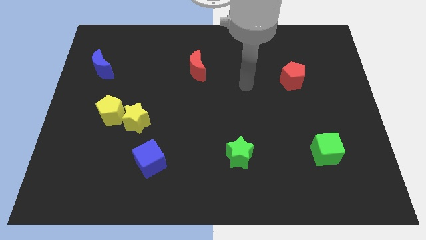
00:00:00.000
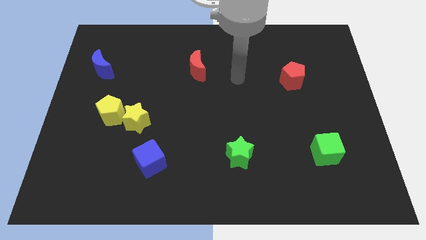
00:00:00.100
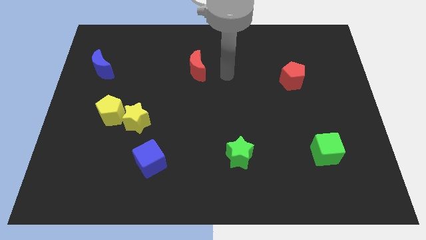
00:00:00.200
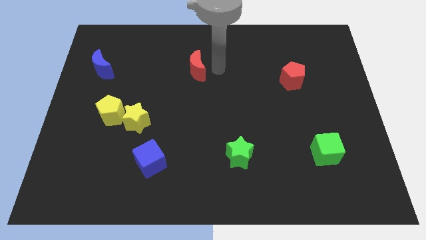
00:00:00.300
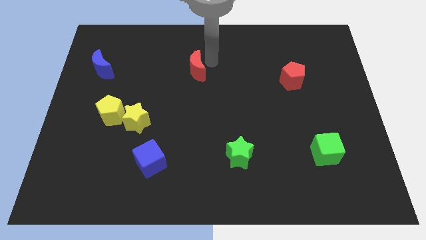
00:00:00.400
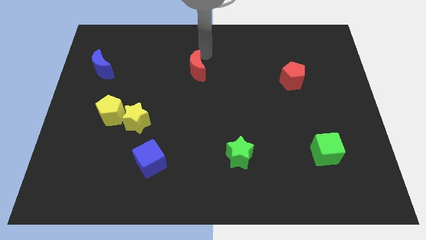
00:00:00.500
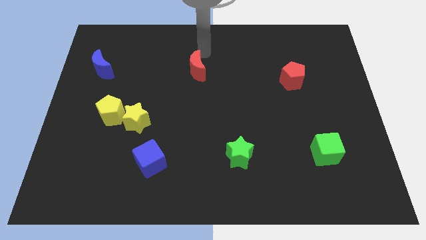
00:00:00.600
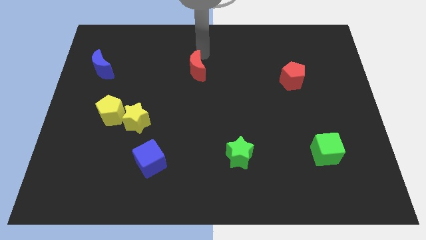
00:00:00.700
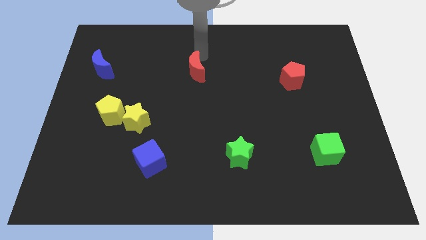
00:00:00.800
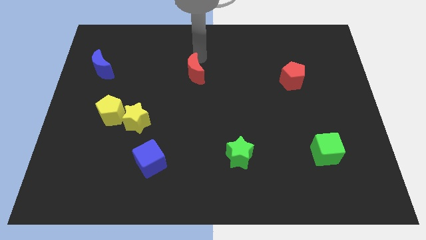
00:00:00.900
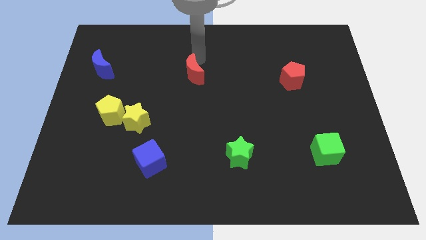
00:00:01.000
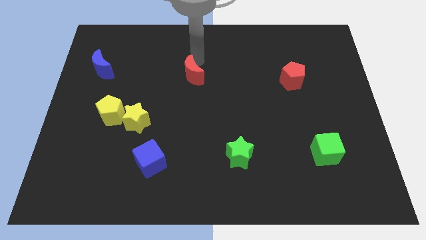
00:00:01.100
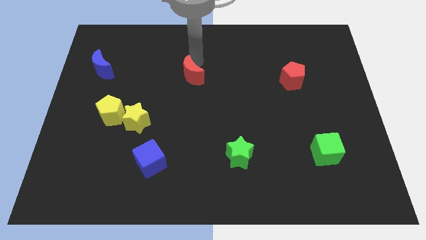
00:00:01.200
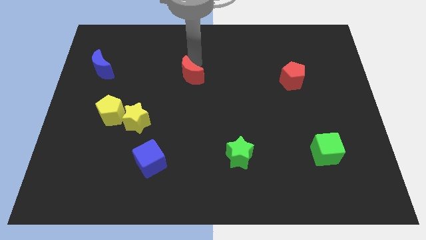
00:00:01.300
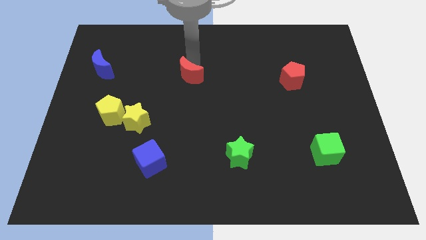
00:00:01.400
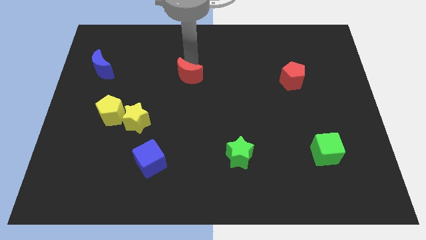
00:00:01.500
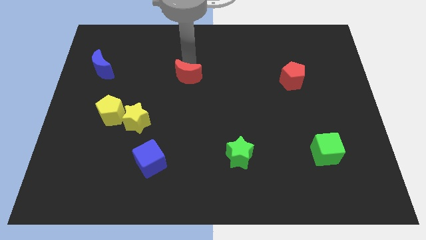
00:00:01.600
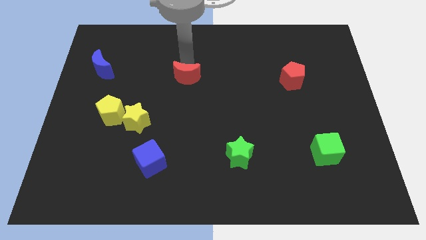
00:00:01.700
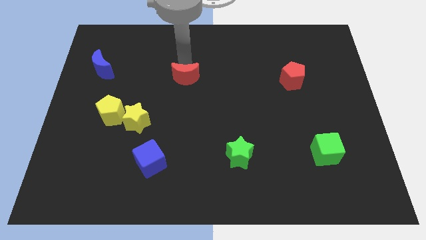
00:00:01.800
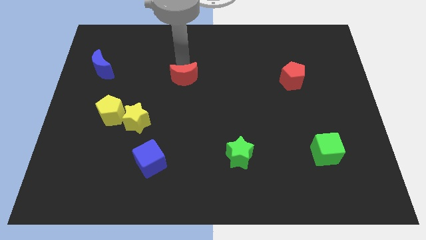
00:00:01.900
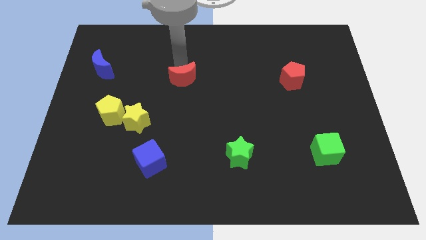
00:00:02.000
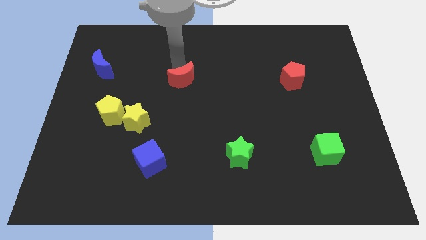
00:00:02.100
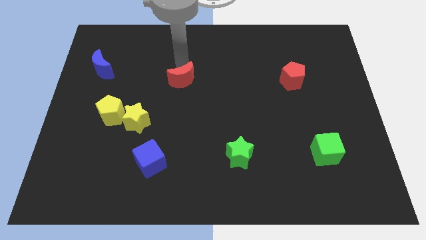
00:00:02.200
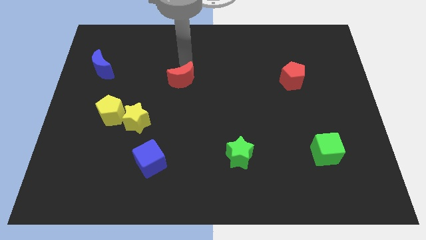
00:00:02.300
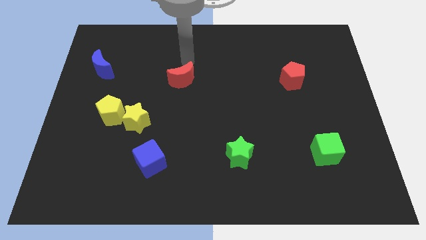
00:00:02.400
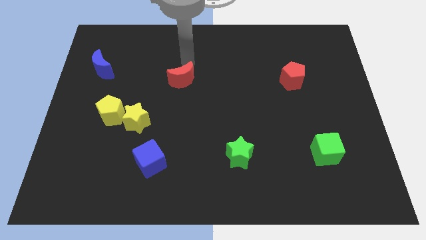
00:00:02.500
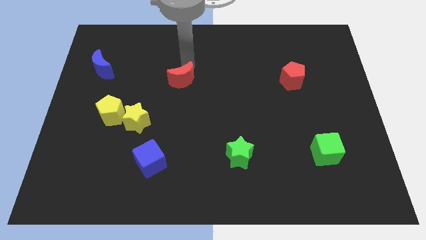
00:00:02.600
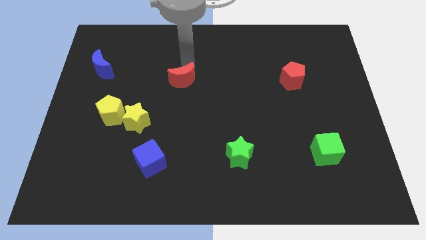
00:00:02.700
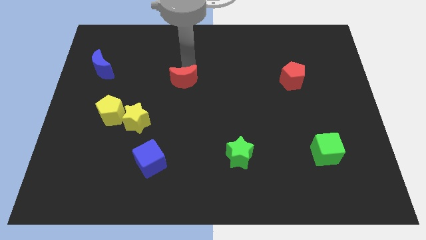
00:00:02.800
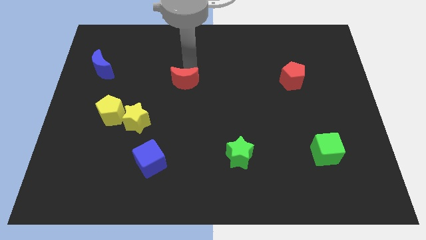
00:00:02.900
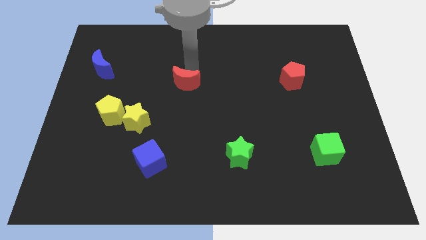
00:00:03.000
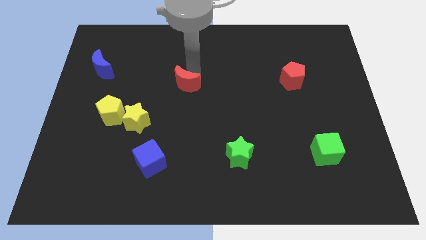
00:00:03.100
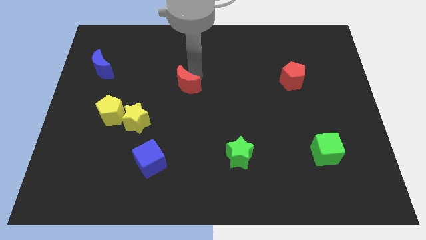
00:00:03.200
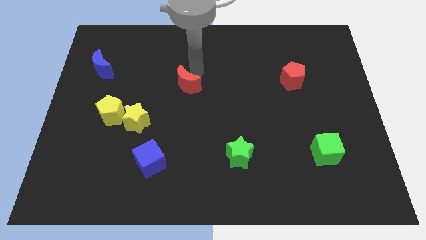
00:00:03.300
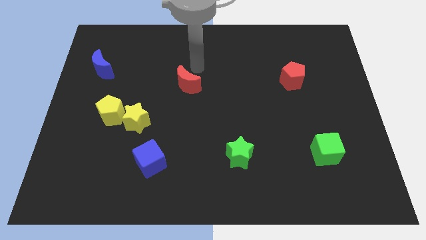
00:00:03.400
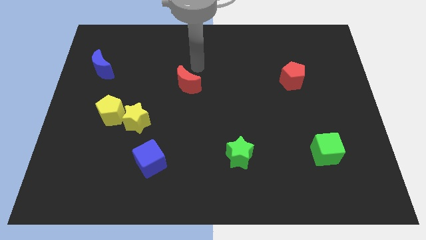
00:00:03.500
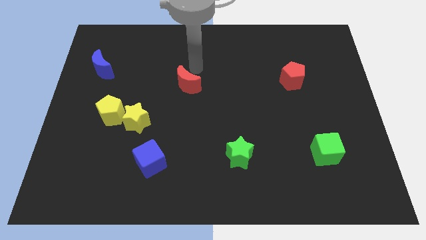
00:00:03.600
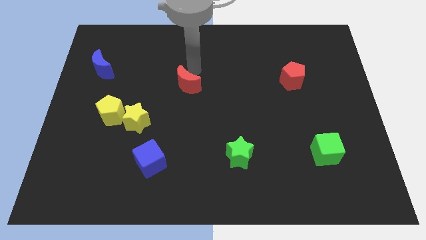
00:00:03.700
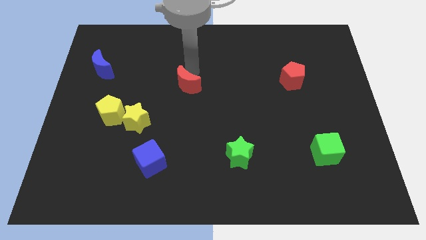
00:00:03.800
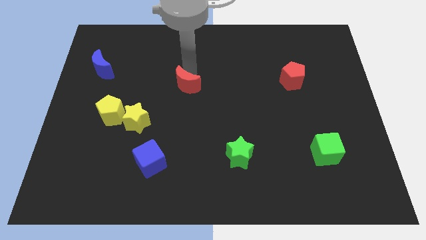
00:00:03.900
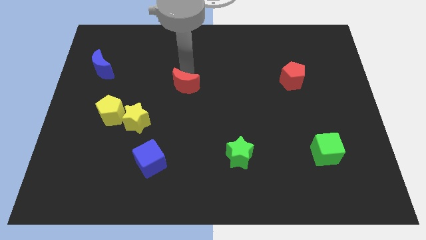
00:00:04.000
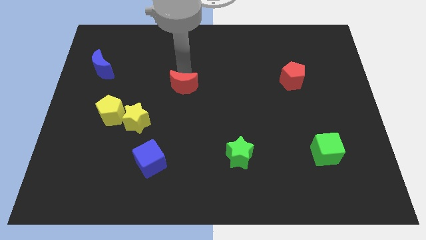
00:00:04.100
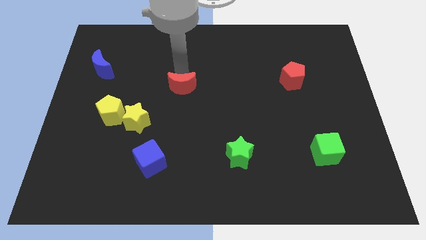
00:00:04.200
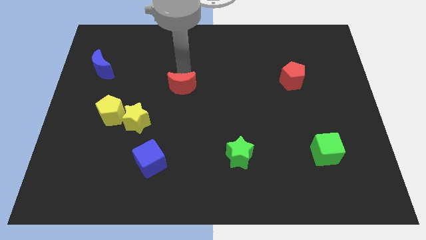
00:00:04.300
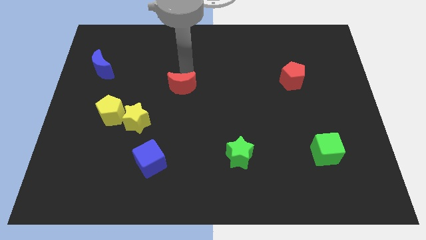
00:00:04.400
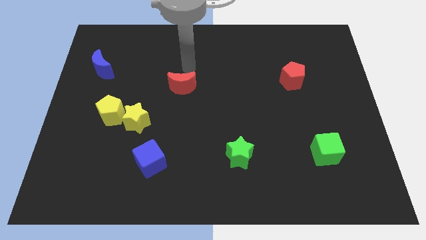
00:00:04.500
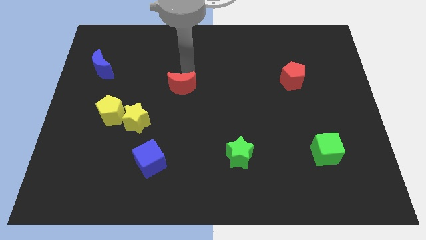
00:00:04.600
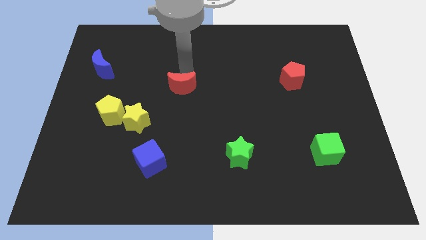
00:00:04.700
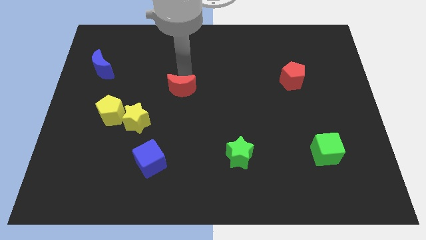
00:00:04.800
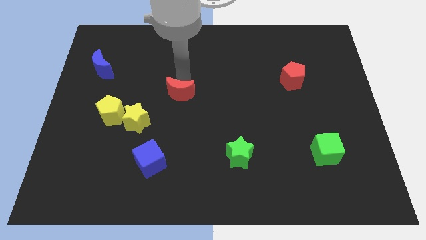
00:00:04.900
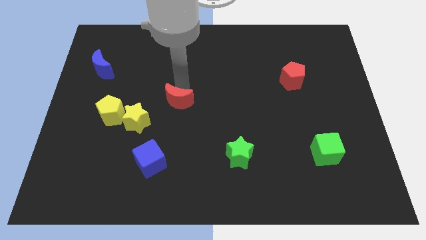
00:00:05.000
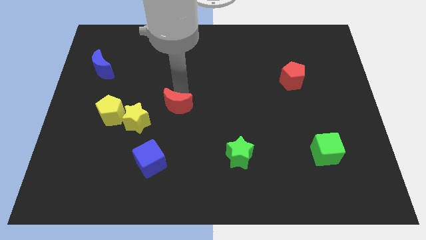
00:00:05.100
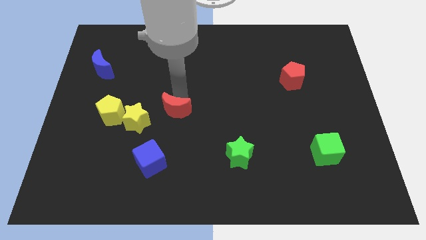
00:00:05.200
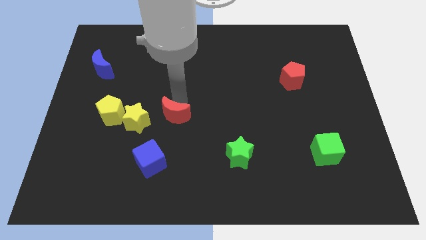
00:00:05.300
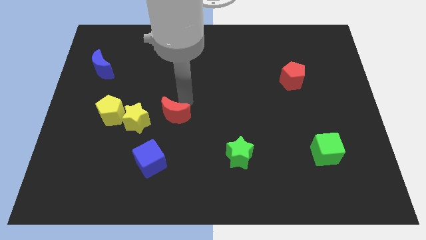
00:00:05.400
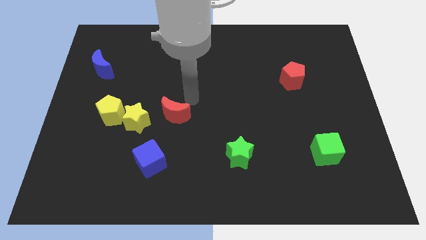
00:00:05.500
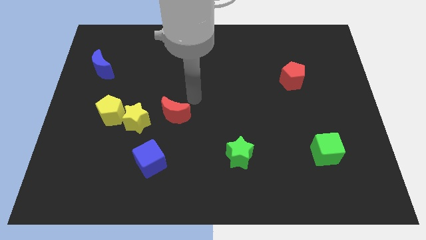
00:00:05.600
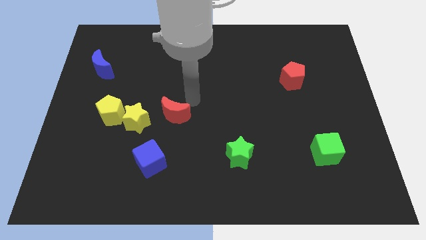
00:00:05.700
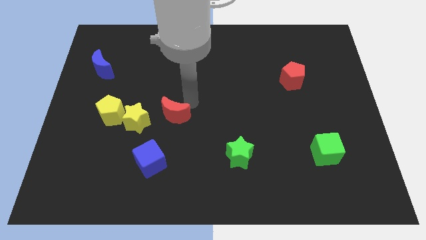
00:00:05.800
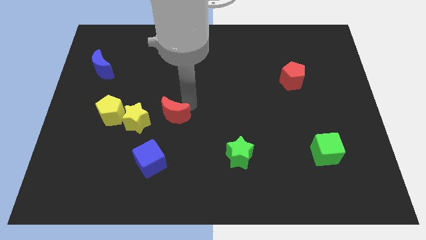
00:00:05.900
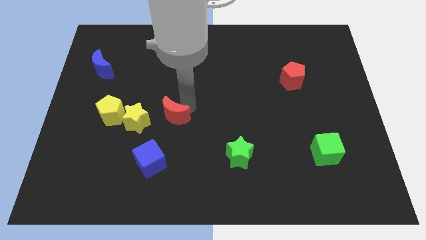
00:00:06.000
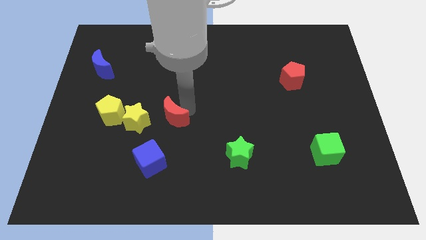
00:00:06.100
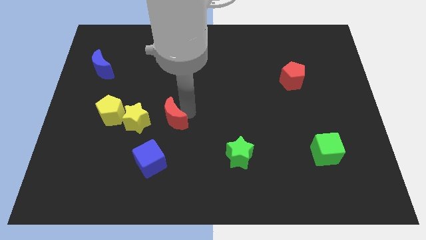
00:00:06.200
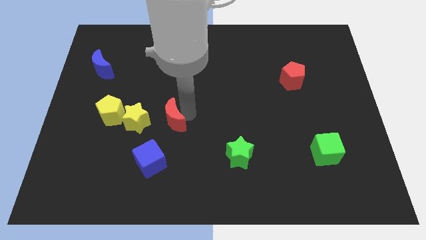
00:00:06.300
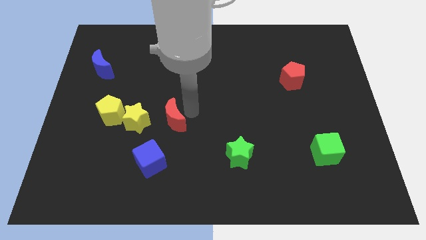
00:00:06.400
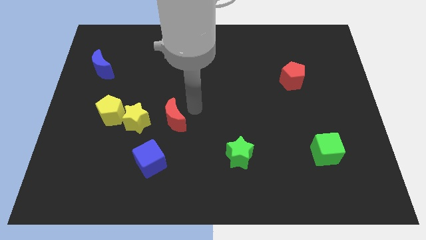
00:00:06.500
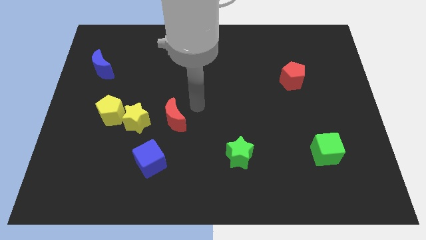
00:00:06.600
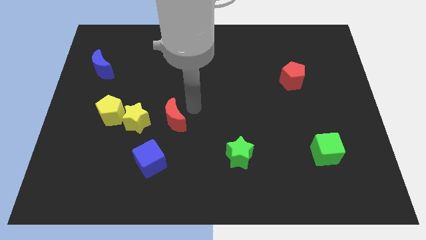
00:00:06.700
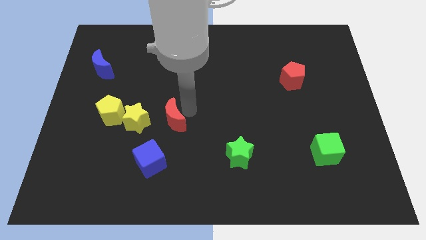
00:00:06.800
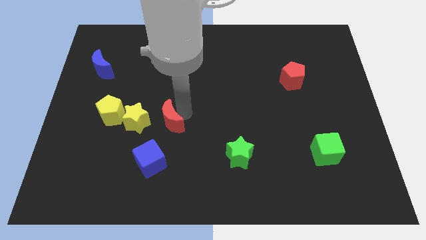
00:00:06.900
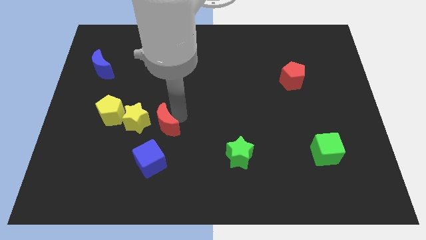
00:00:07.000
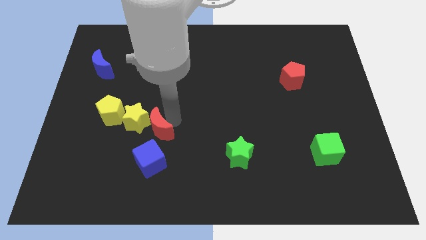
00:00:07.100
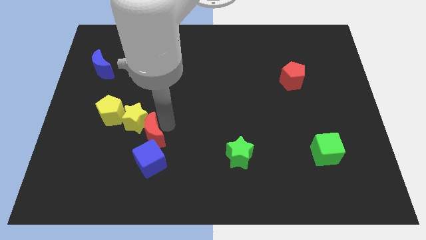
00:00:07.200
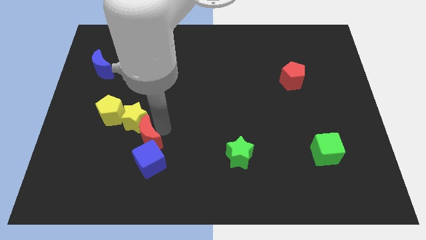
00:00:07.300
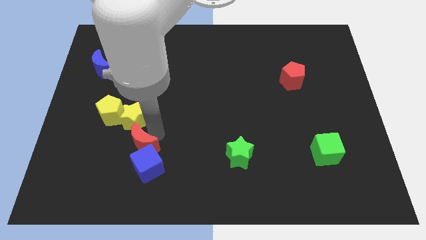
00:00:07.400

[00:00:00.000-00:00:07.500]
slide the red moon down and to the left diagonally

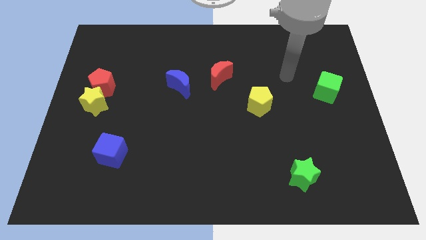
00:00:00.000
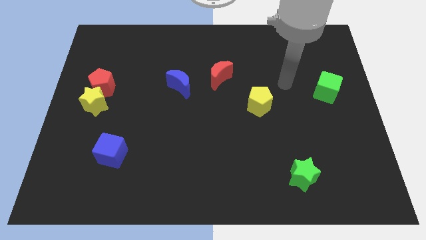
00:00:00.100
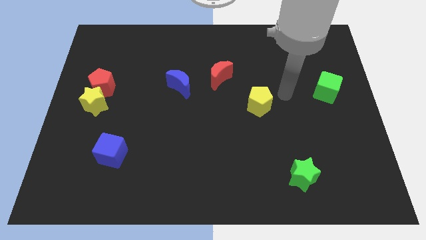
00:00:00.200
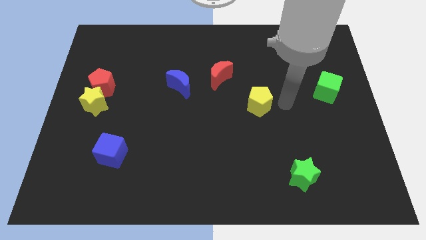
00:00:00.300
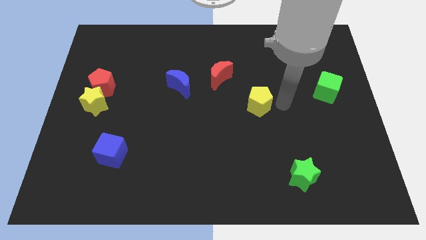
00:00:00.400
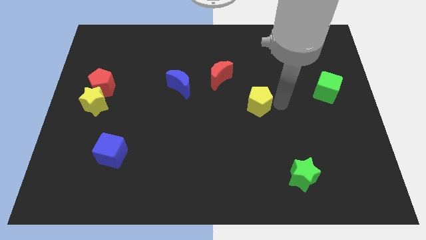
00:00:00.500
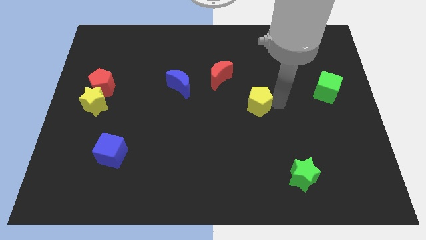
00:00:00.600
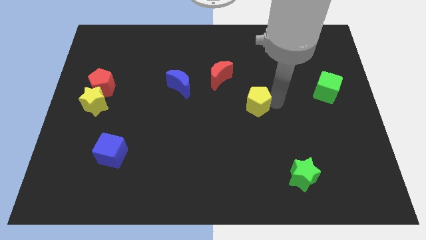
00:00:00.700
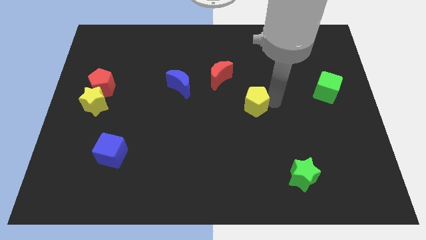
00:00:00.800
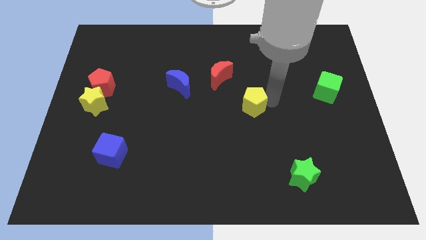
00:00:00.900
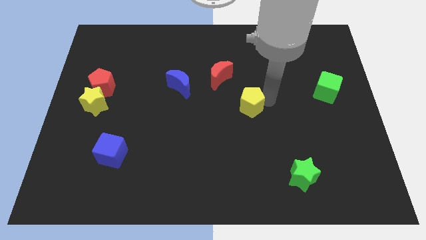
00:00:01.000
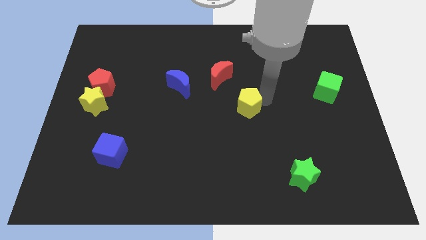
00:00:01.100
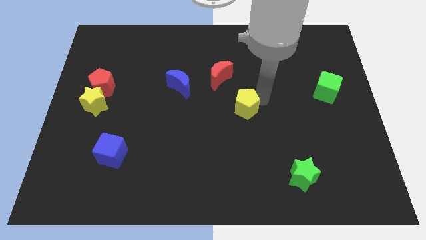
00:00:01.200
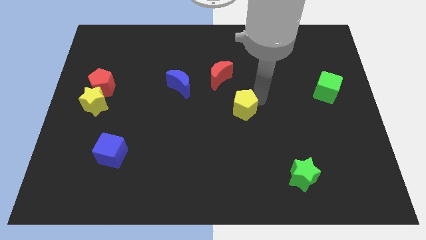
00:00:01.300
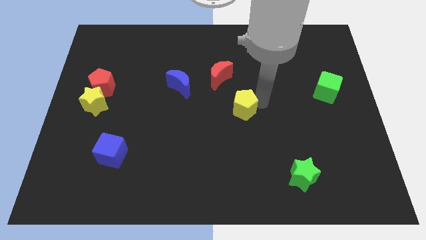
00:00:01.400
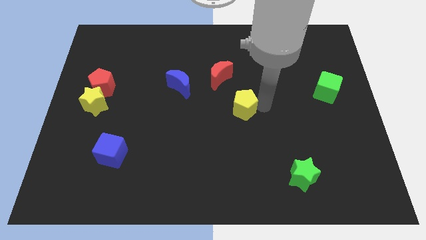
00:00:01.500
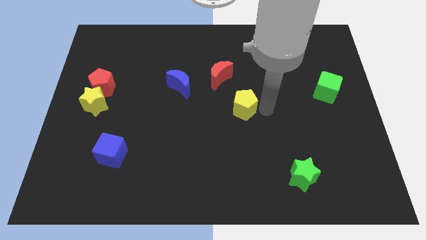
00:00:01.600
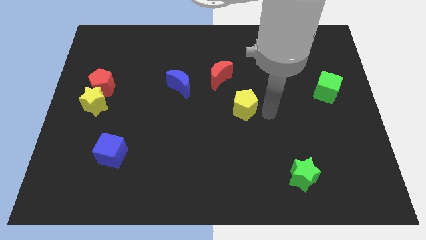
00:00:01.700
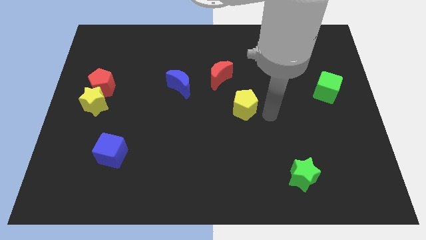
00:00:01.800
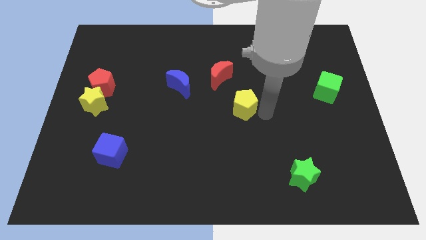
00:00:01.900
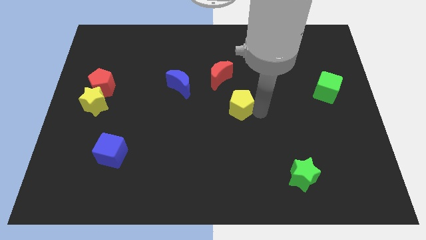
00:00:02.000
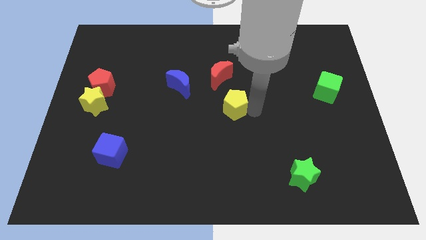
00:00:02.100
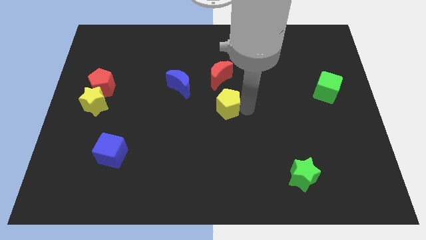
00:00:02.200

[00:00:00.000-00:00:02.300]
slide the yellow pentagon a bit to the left
